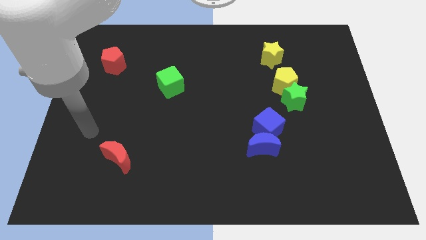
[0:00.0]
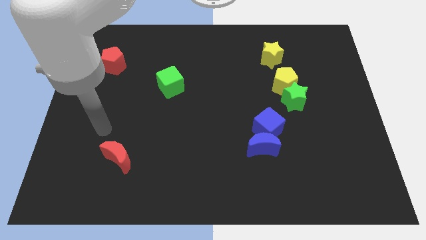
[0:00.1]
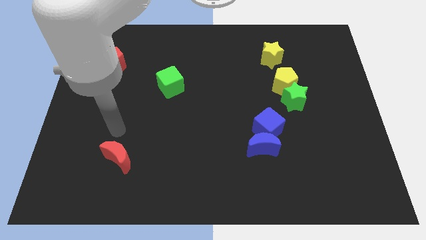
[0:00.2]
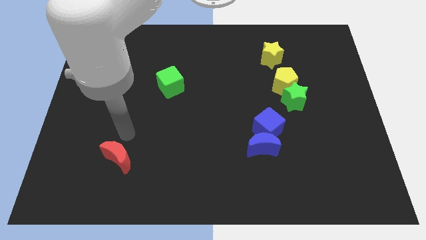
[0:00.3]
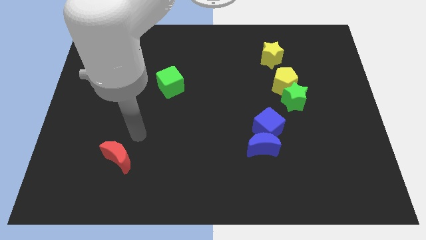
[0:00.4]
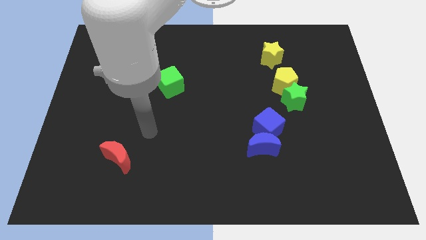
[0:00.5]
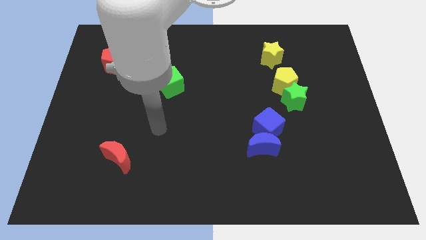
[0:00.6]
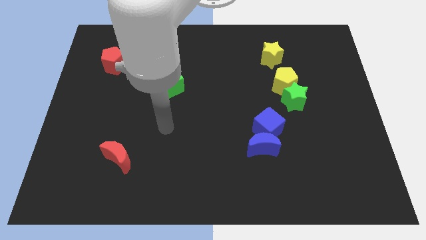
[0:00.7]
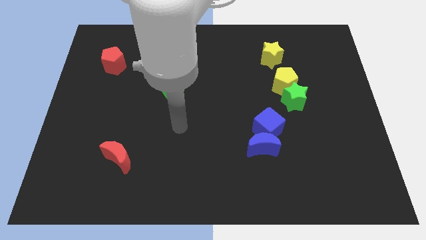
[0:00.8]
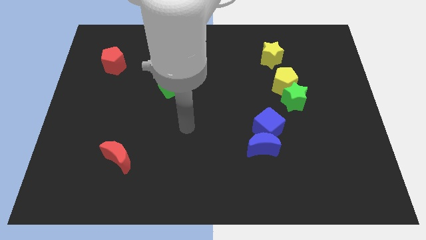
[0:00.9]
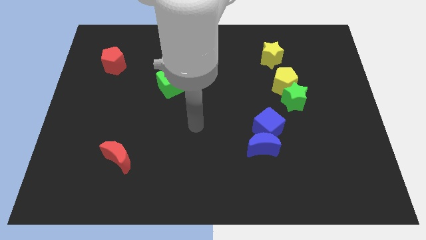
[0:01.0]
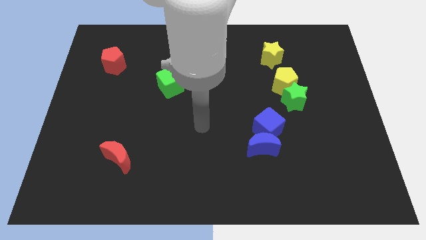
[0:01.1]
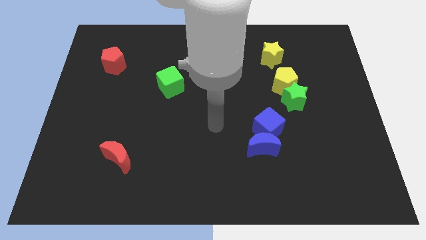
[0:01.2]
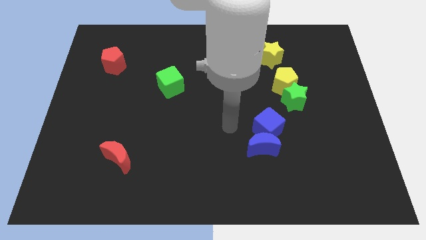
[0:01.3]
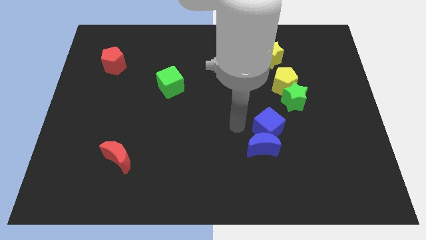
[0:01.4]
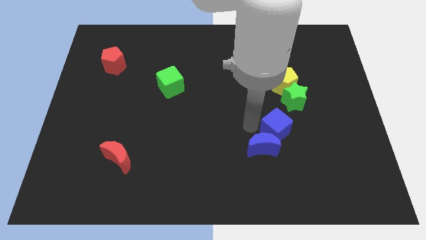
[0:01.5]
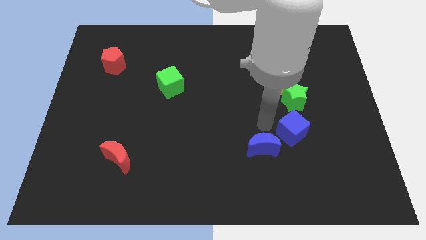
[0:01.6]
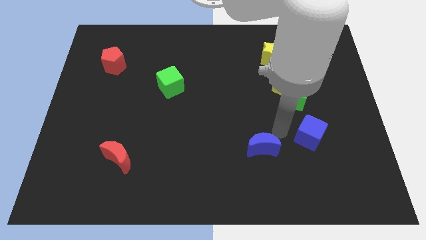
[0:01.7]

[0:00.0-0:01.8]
pull the blue moon apart from the blue cube

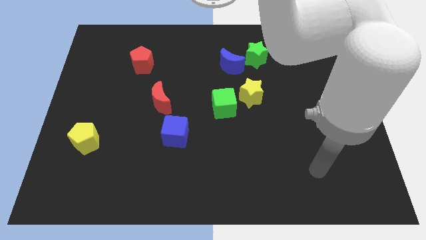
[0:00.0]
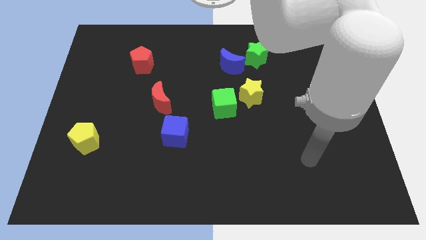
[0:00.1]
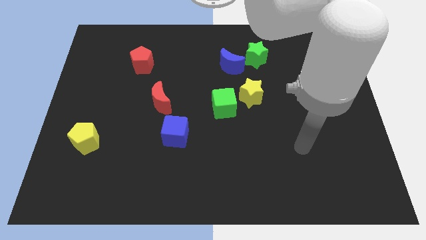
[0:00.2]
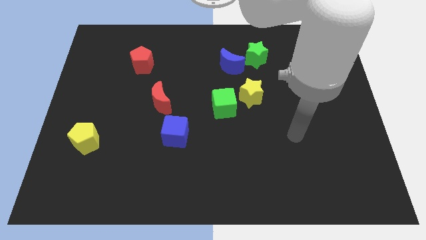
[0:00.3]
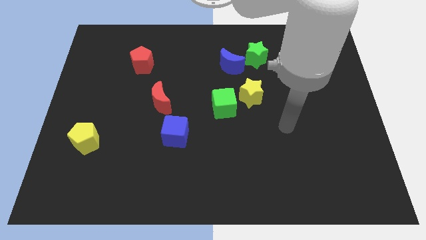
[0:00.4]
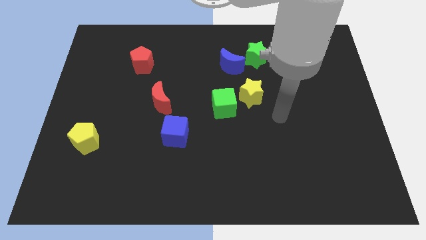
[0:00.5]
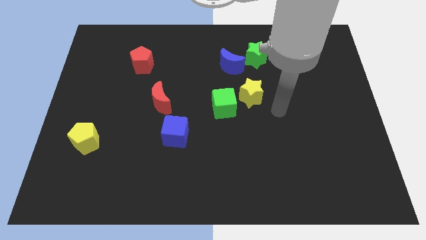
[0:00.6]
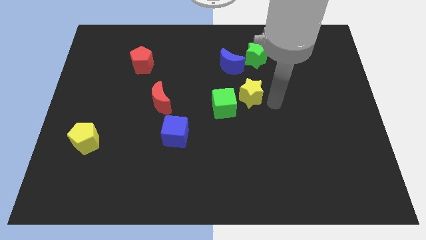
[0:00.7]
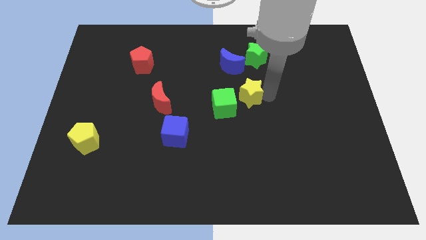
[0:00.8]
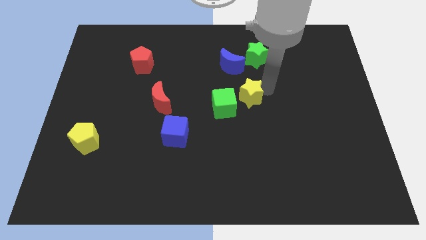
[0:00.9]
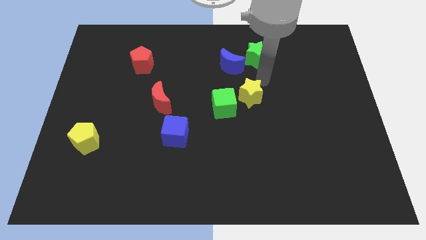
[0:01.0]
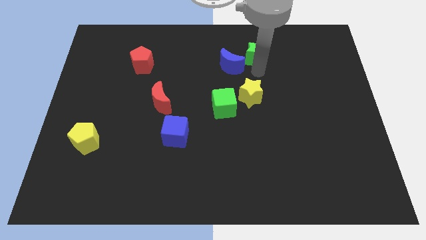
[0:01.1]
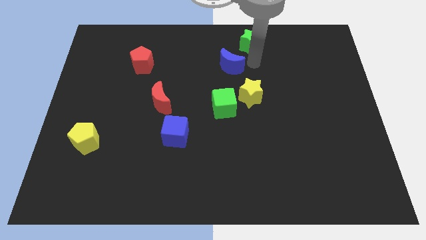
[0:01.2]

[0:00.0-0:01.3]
separate the blue moon from the green star

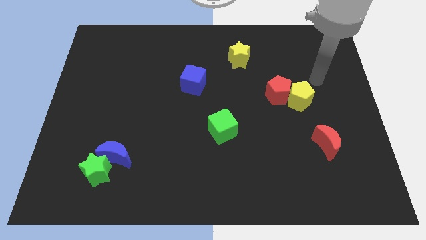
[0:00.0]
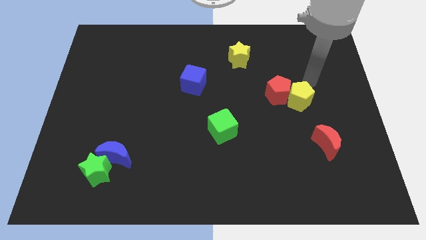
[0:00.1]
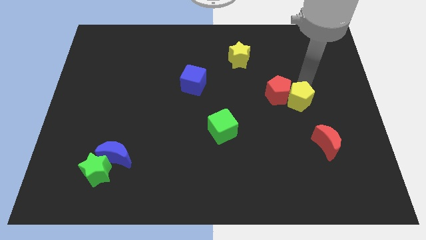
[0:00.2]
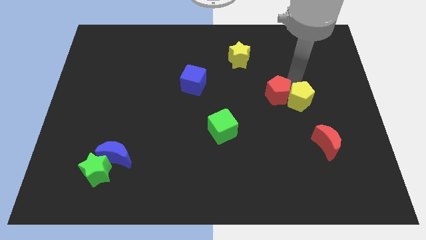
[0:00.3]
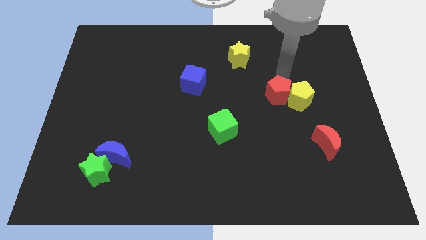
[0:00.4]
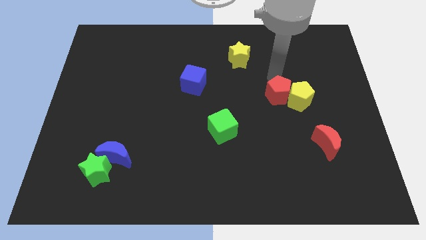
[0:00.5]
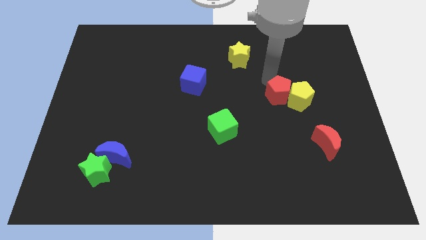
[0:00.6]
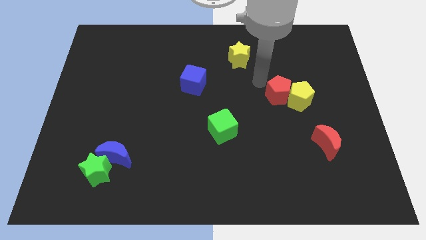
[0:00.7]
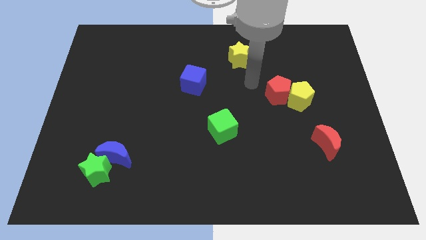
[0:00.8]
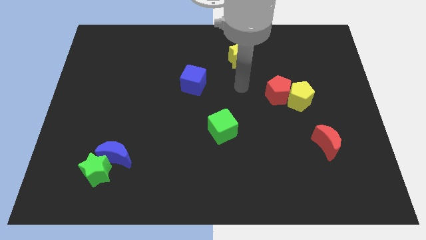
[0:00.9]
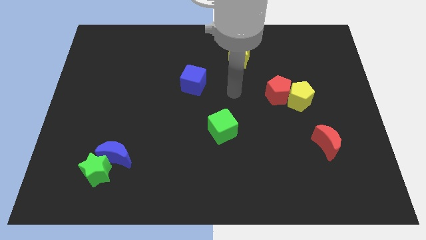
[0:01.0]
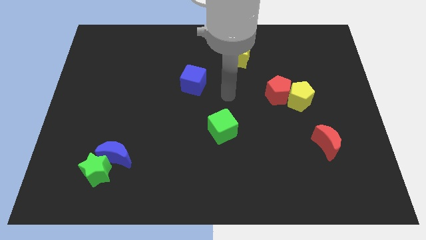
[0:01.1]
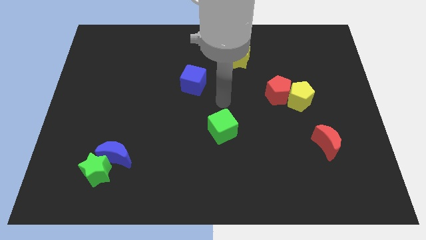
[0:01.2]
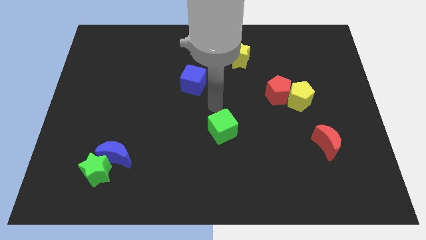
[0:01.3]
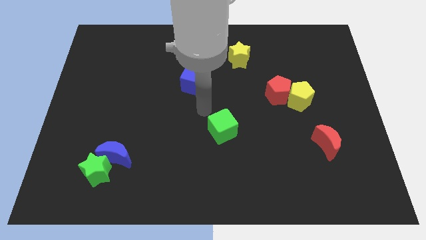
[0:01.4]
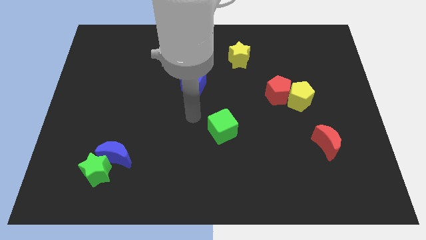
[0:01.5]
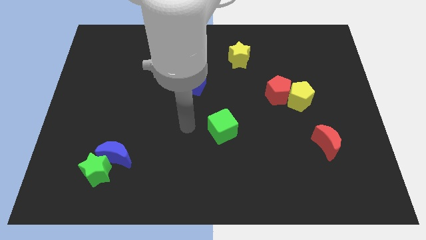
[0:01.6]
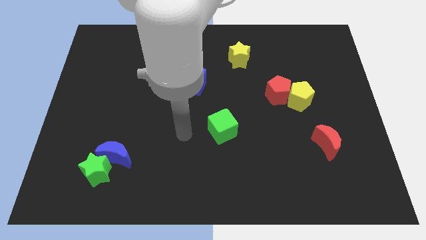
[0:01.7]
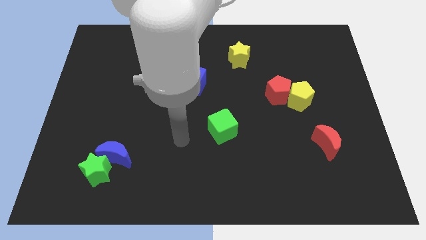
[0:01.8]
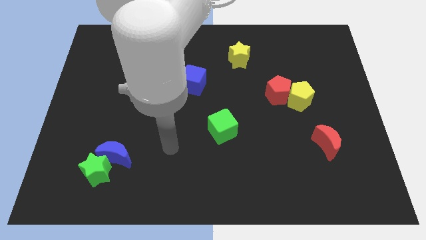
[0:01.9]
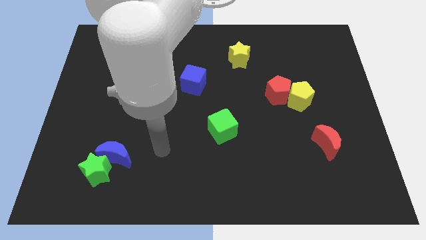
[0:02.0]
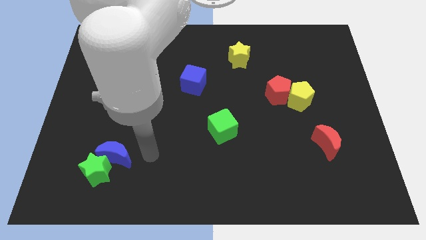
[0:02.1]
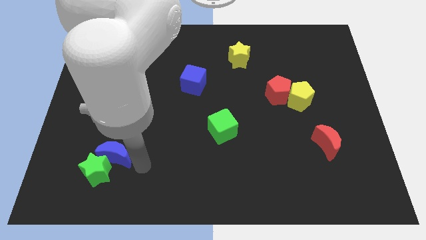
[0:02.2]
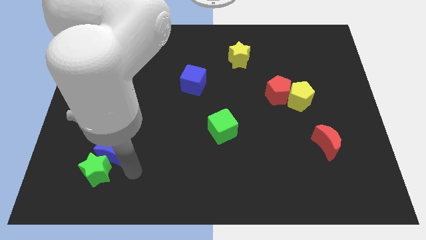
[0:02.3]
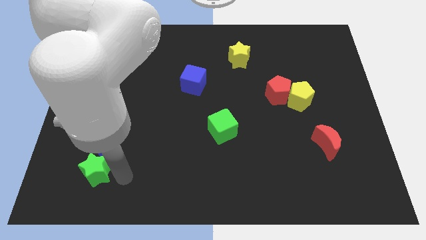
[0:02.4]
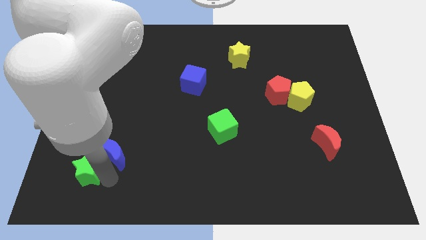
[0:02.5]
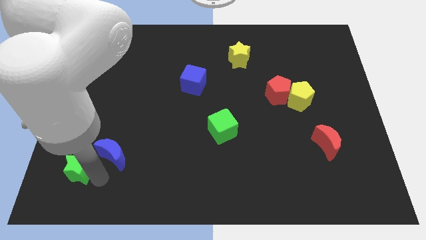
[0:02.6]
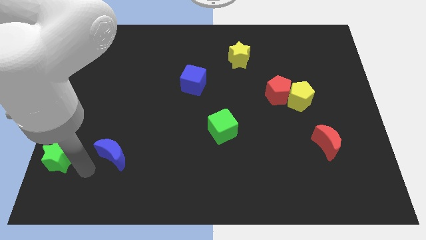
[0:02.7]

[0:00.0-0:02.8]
pull the blue moon apart from the green star

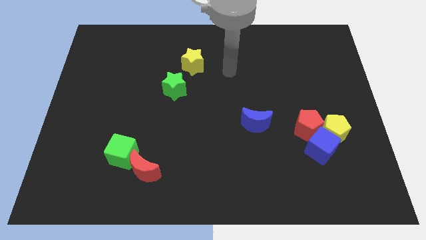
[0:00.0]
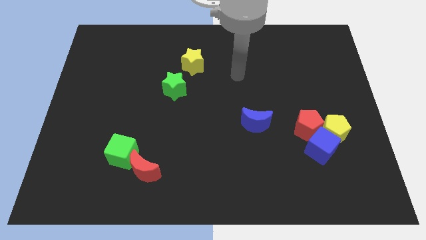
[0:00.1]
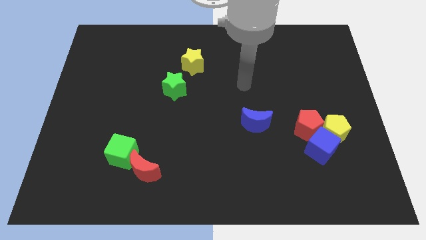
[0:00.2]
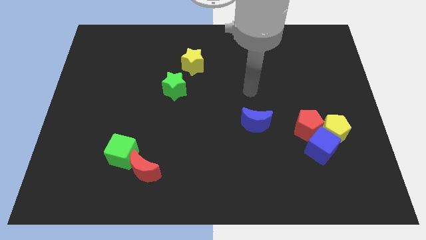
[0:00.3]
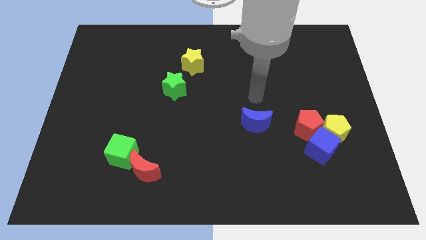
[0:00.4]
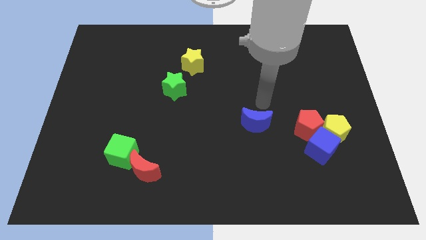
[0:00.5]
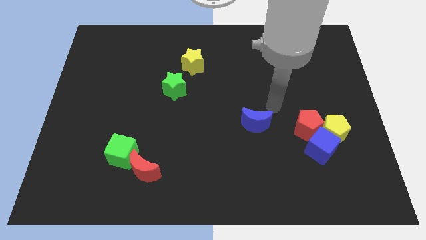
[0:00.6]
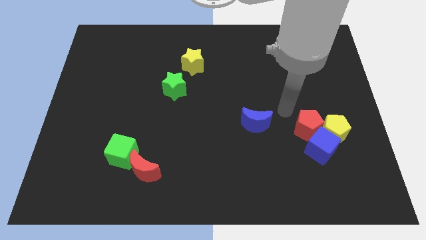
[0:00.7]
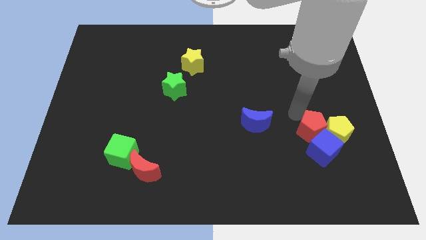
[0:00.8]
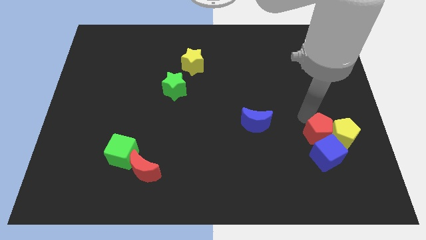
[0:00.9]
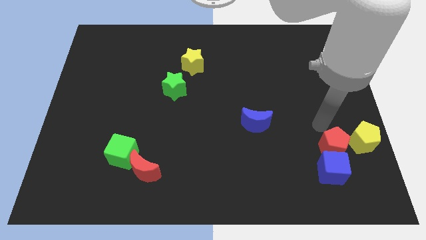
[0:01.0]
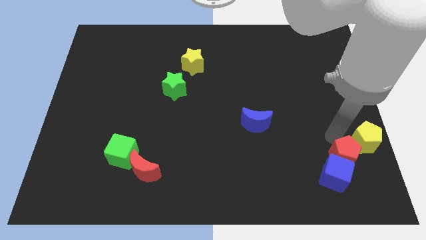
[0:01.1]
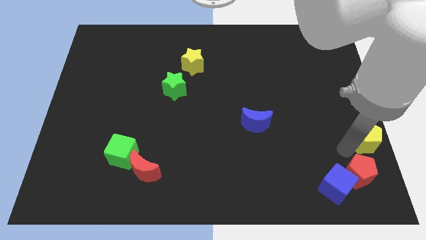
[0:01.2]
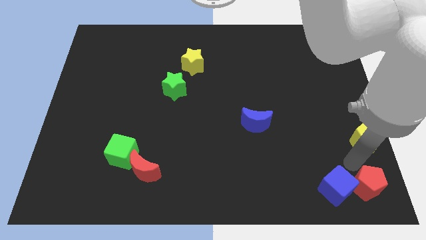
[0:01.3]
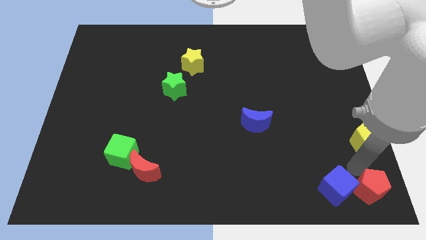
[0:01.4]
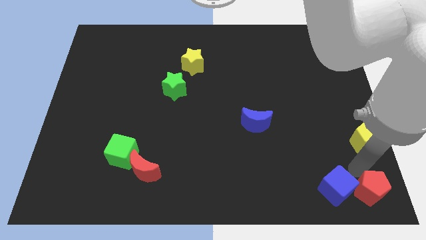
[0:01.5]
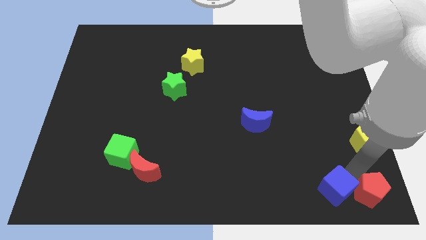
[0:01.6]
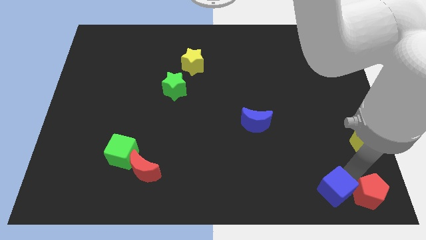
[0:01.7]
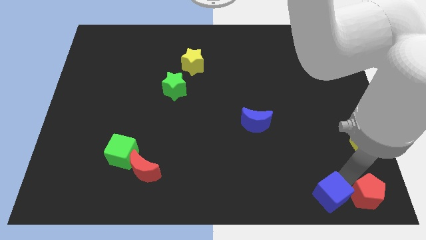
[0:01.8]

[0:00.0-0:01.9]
separate the blue cube from the yellow pentagon and red pentagon

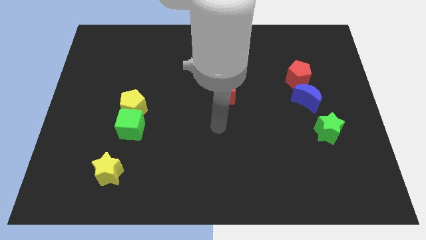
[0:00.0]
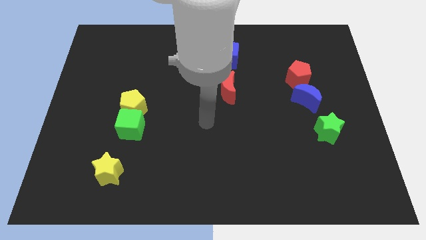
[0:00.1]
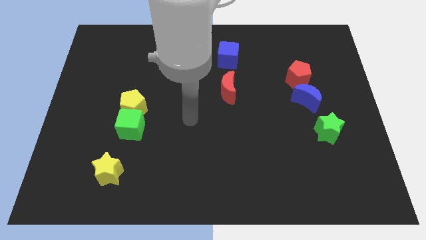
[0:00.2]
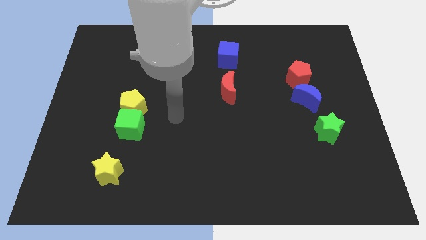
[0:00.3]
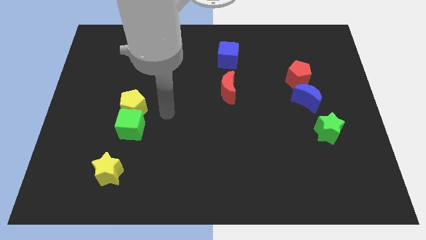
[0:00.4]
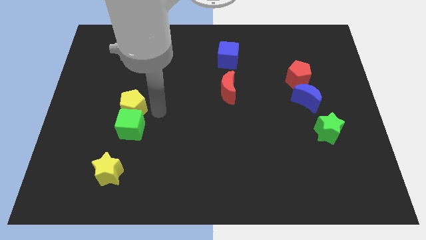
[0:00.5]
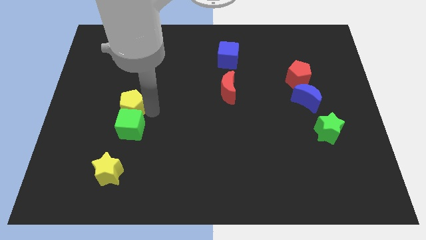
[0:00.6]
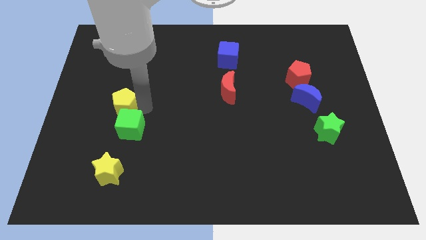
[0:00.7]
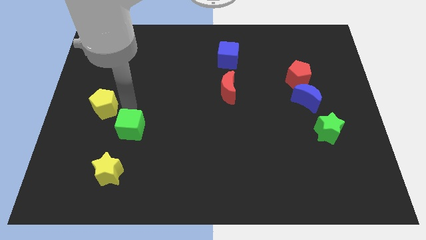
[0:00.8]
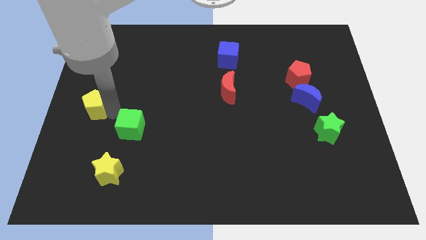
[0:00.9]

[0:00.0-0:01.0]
pull the green cube apart from the yellow pentagon

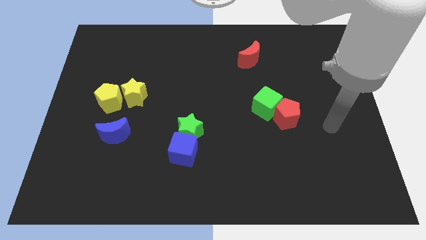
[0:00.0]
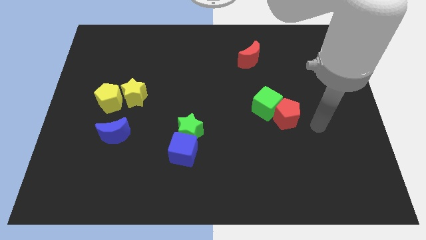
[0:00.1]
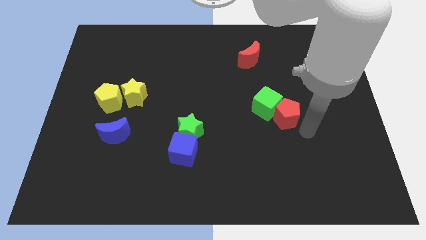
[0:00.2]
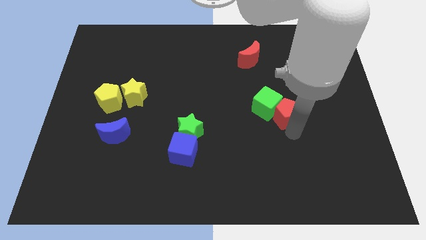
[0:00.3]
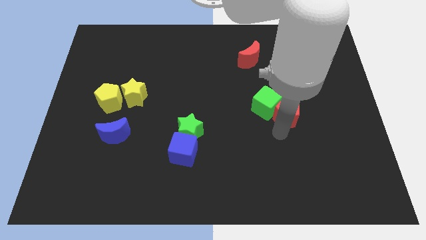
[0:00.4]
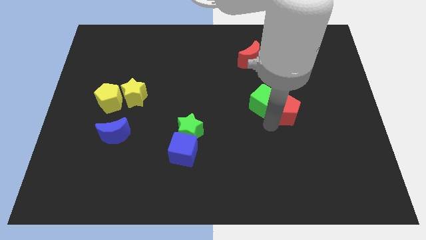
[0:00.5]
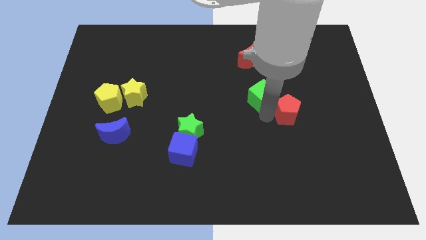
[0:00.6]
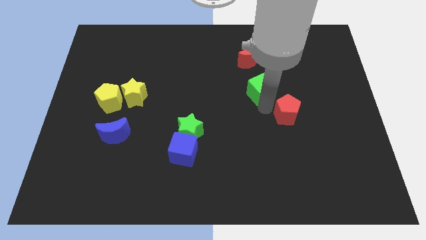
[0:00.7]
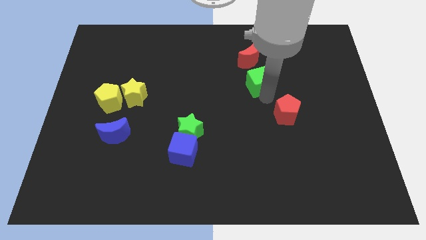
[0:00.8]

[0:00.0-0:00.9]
separate the red pentagon from the green cube
